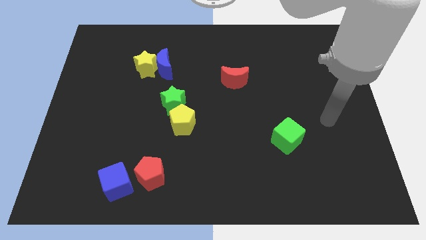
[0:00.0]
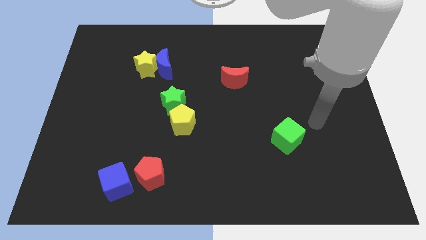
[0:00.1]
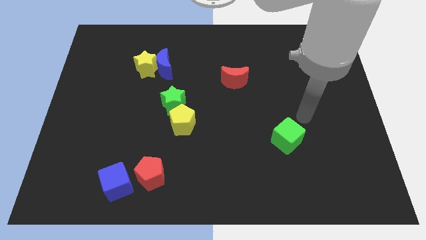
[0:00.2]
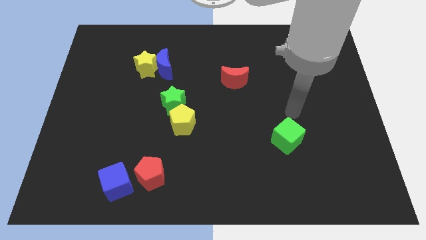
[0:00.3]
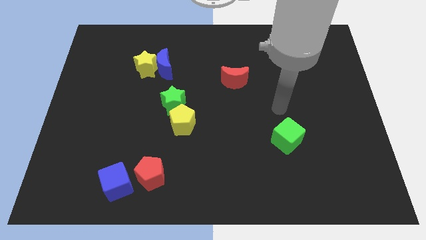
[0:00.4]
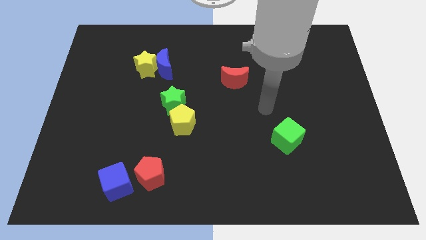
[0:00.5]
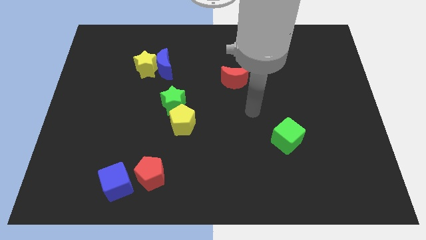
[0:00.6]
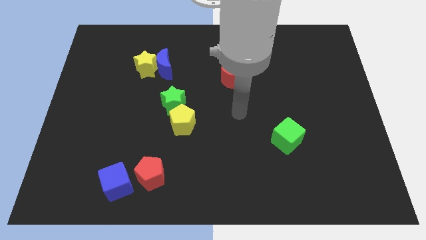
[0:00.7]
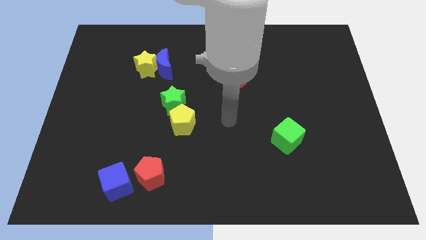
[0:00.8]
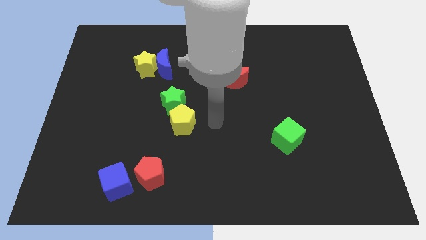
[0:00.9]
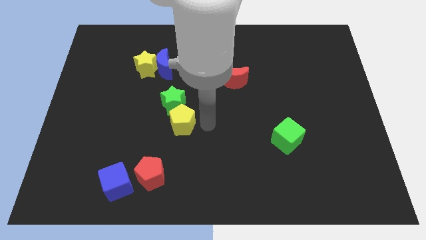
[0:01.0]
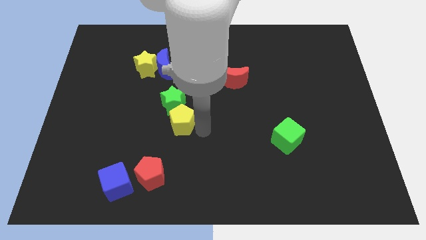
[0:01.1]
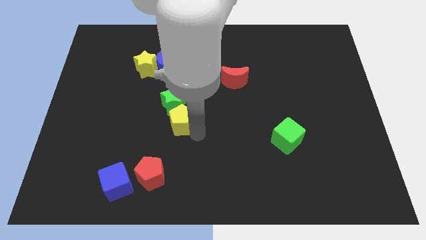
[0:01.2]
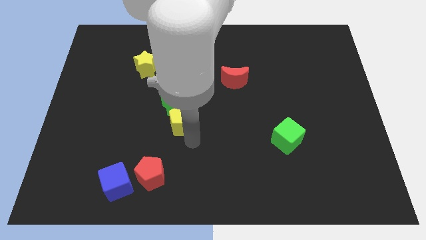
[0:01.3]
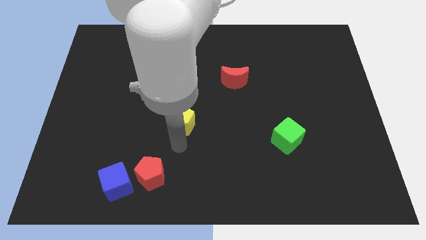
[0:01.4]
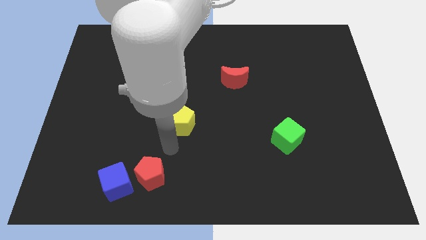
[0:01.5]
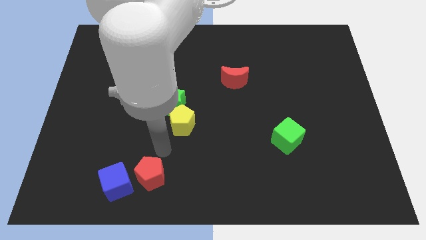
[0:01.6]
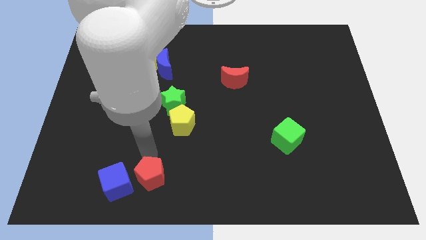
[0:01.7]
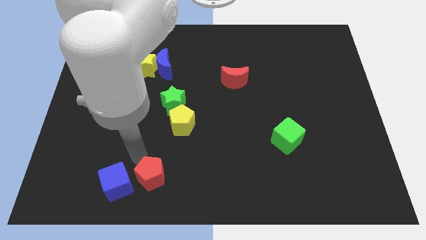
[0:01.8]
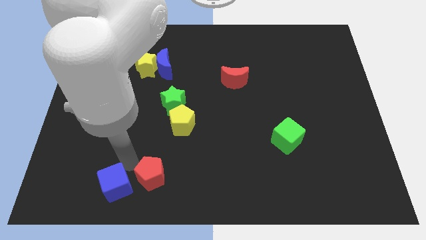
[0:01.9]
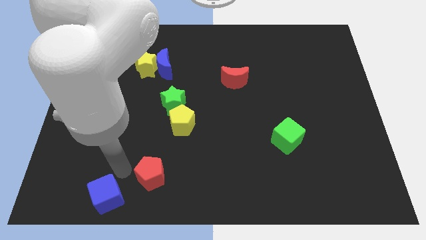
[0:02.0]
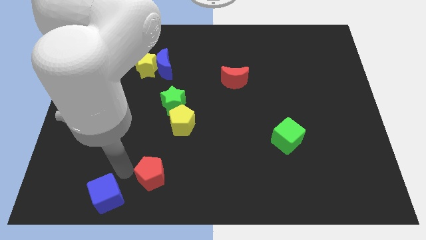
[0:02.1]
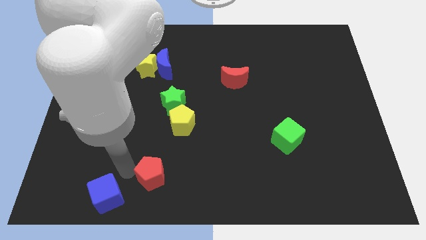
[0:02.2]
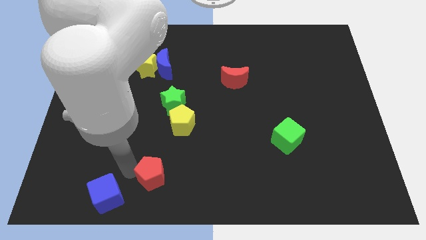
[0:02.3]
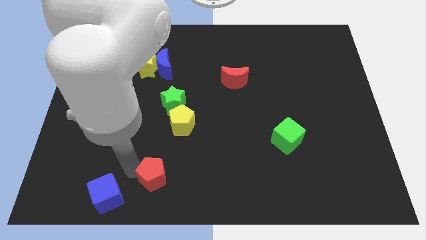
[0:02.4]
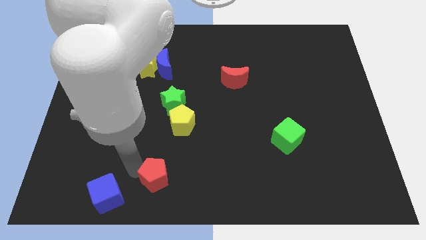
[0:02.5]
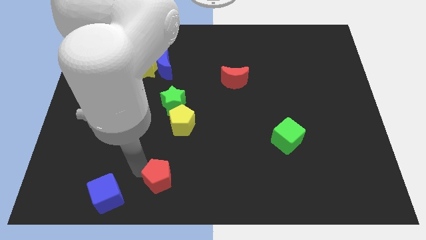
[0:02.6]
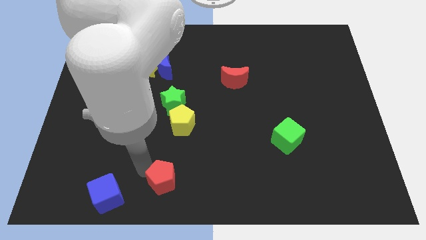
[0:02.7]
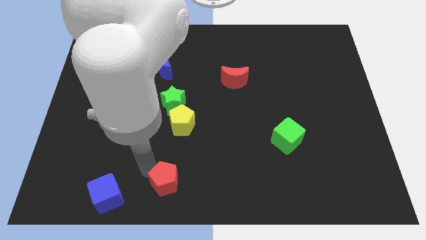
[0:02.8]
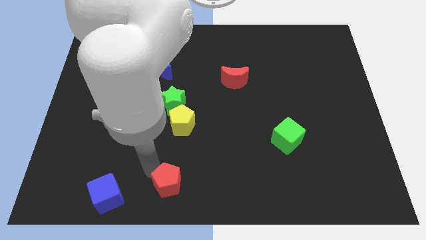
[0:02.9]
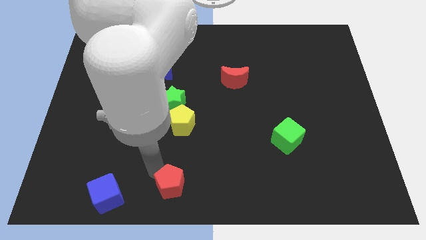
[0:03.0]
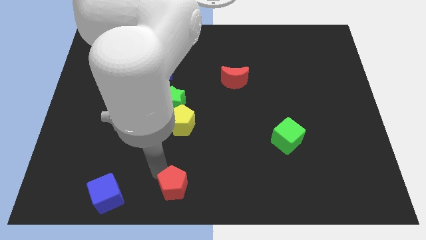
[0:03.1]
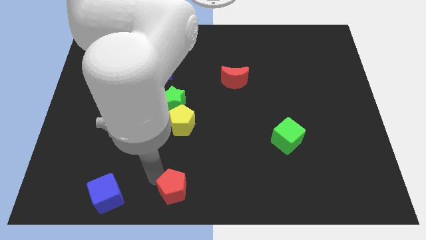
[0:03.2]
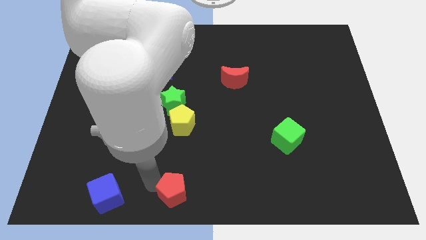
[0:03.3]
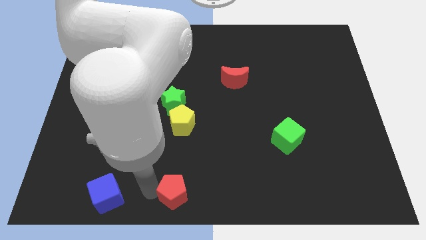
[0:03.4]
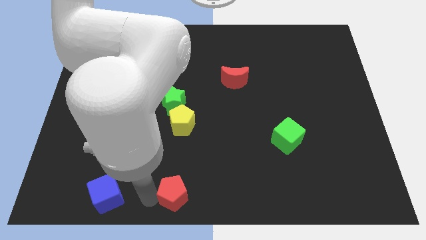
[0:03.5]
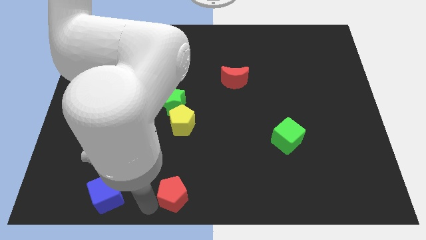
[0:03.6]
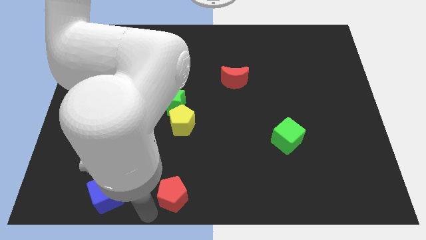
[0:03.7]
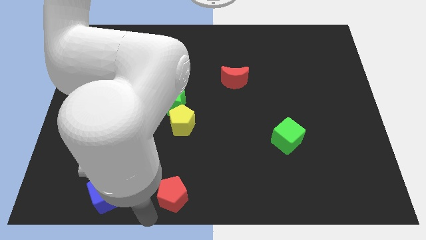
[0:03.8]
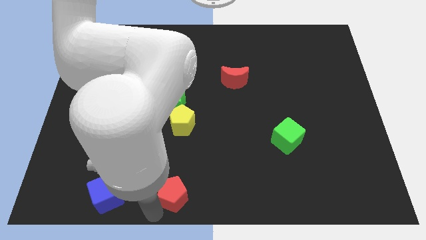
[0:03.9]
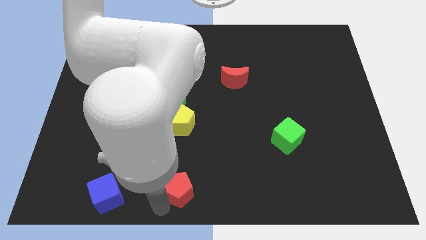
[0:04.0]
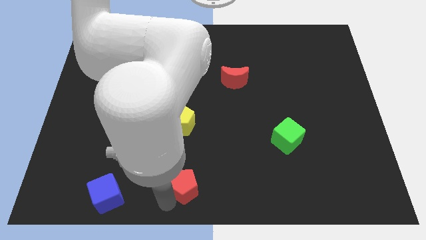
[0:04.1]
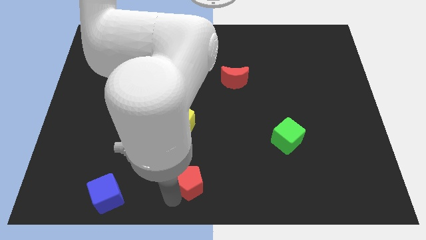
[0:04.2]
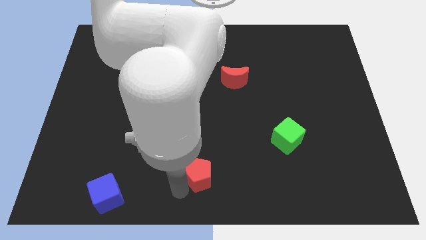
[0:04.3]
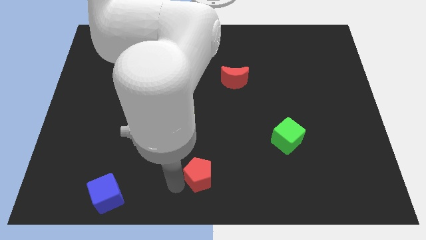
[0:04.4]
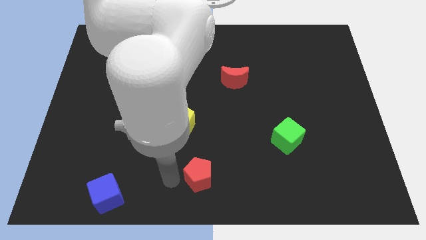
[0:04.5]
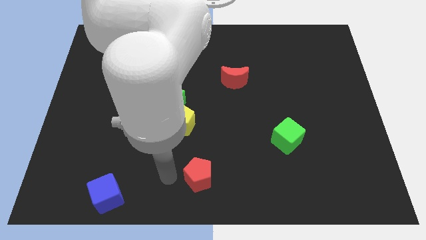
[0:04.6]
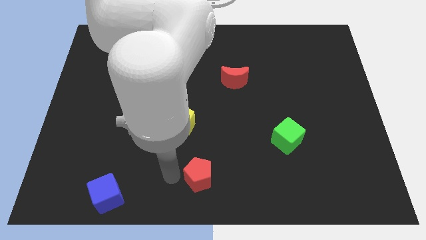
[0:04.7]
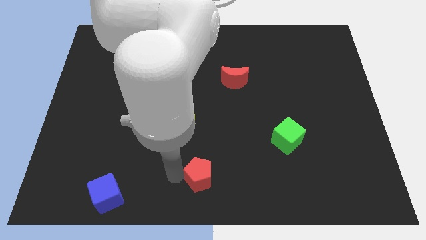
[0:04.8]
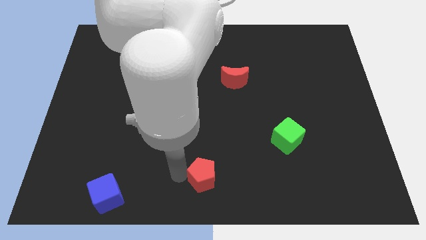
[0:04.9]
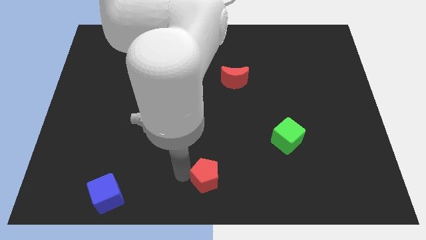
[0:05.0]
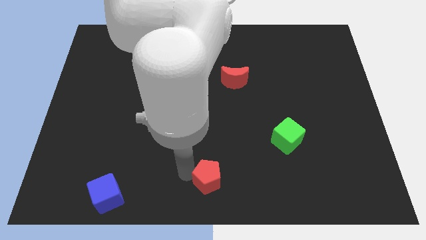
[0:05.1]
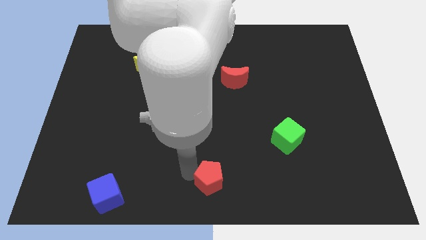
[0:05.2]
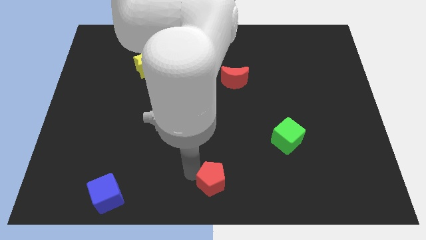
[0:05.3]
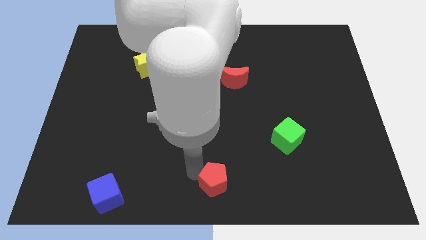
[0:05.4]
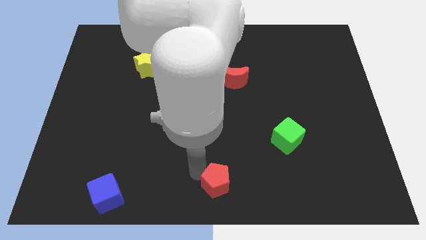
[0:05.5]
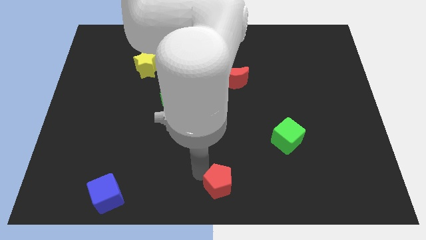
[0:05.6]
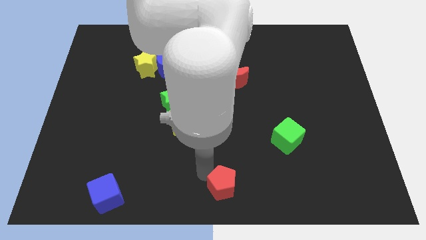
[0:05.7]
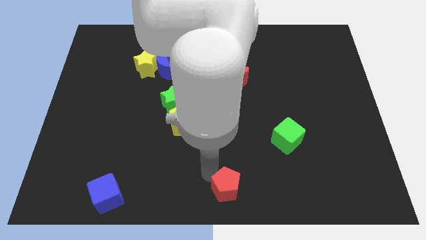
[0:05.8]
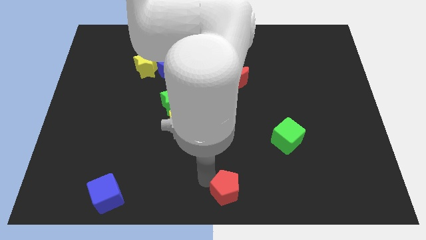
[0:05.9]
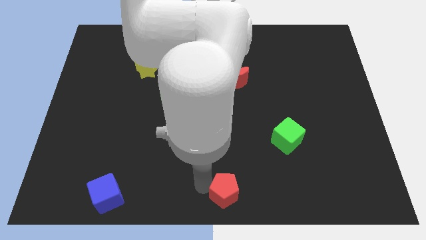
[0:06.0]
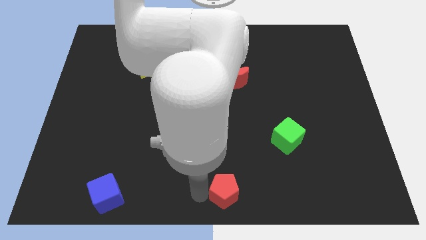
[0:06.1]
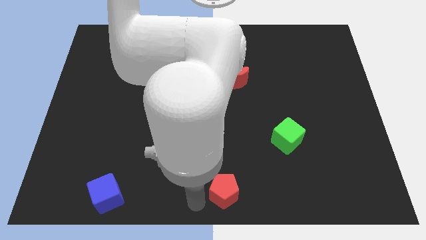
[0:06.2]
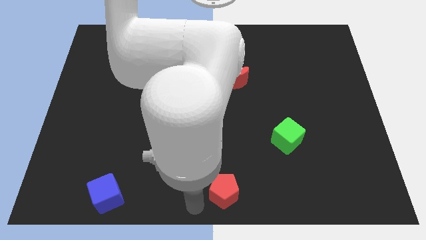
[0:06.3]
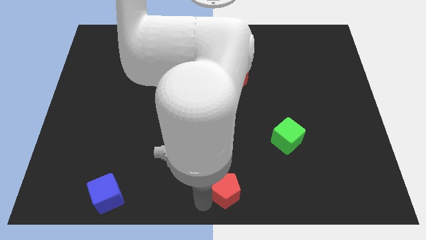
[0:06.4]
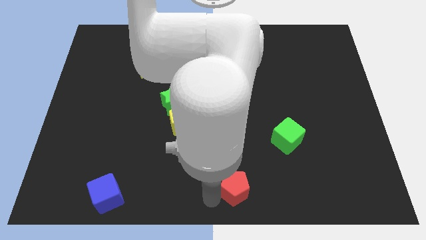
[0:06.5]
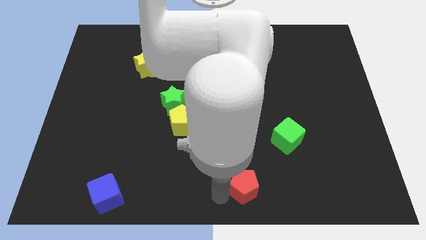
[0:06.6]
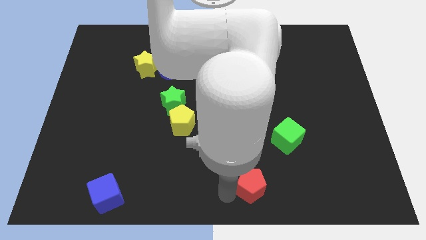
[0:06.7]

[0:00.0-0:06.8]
move the red pentagon to the right

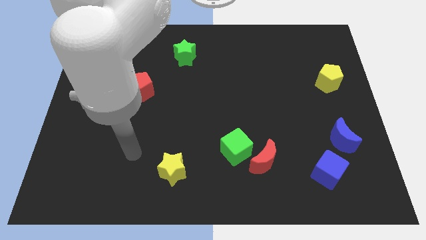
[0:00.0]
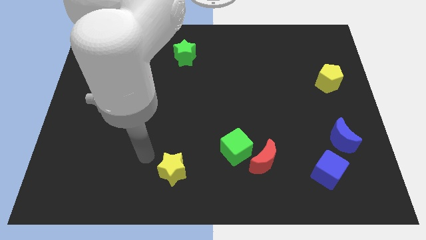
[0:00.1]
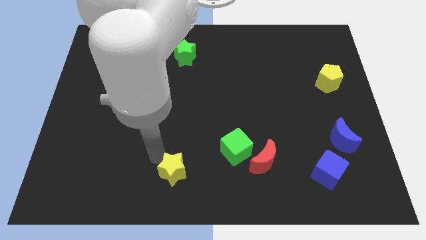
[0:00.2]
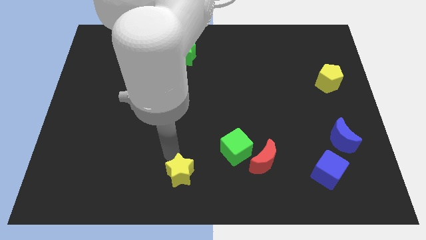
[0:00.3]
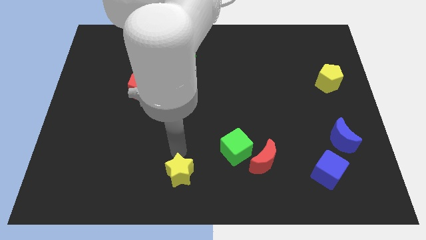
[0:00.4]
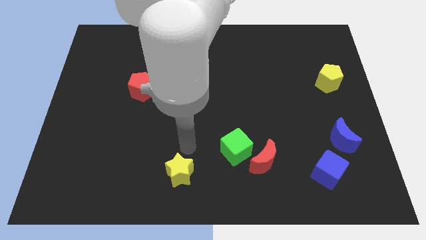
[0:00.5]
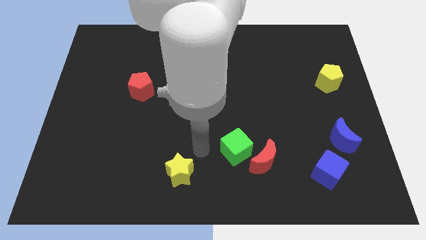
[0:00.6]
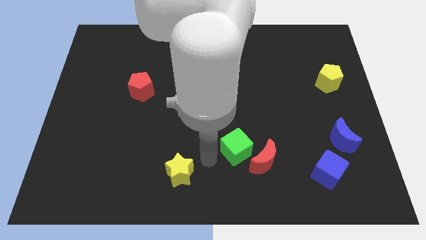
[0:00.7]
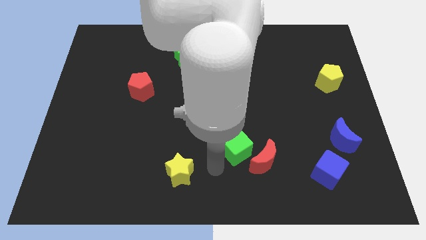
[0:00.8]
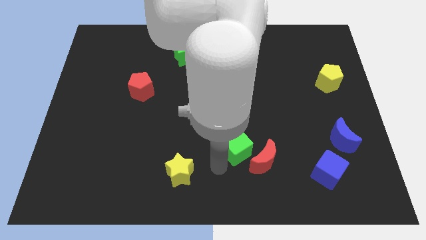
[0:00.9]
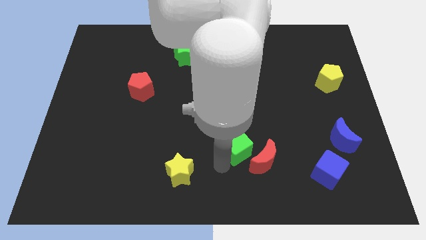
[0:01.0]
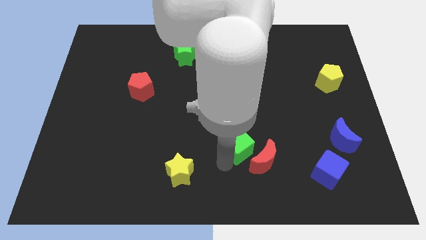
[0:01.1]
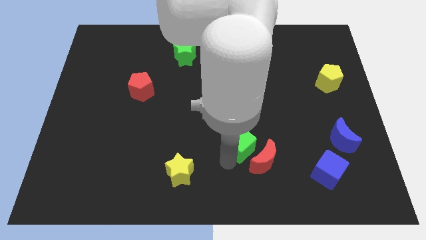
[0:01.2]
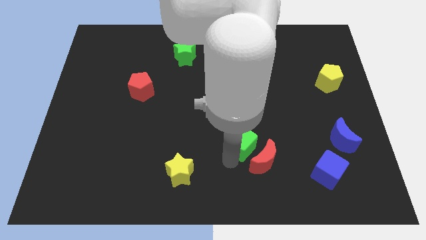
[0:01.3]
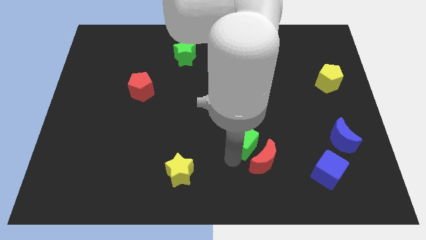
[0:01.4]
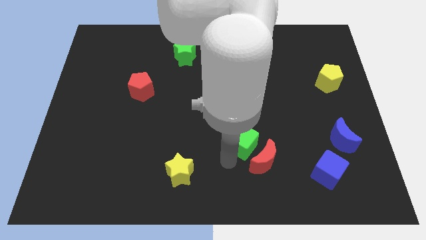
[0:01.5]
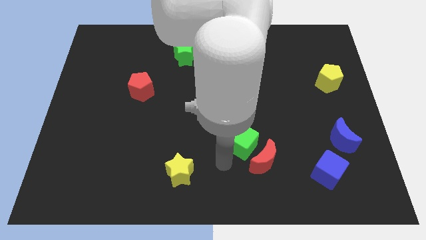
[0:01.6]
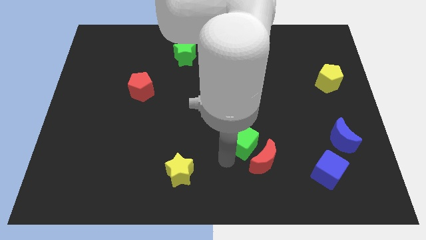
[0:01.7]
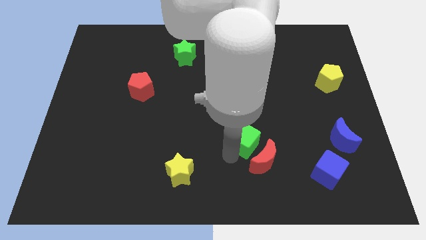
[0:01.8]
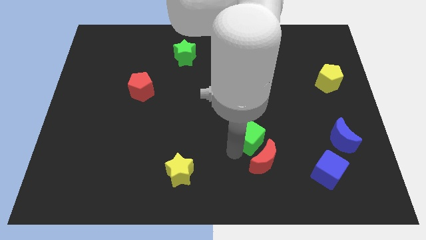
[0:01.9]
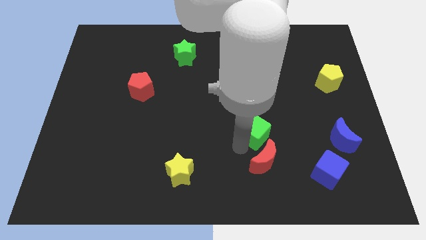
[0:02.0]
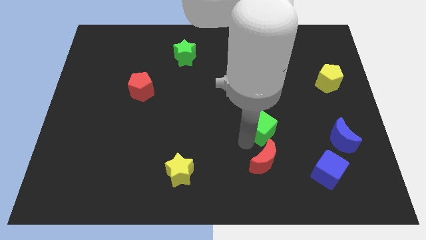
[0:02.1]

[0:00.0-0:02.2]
slightly slide the green cube upwards and to the right diagonally
